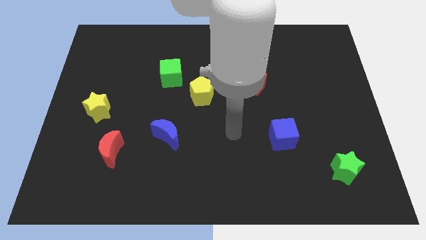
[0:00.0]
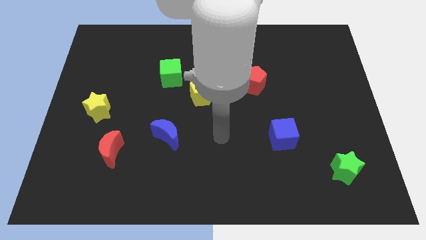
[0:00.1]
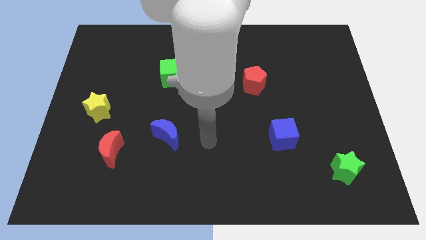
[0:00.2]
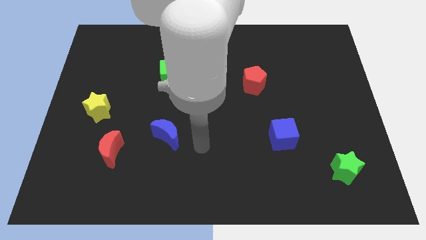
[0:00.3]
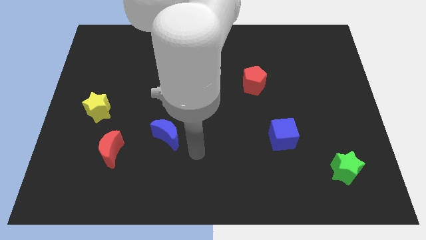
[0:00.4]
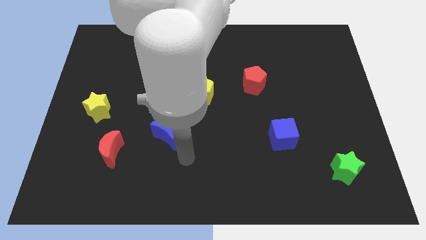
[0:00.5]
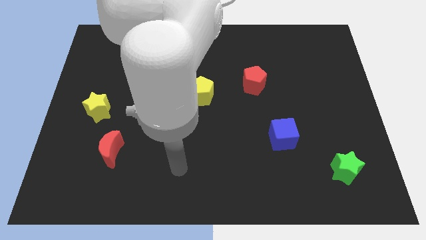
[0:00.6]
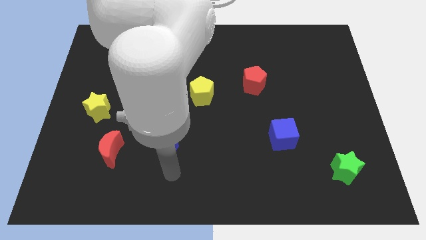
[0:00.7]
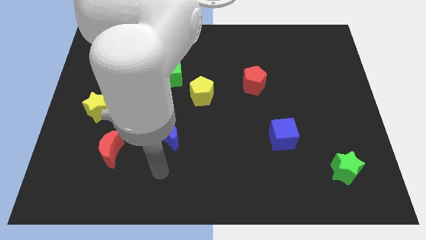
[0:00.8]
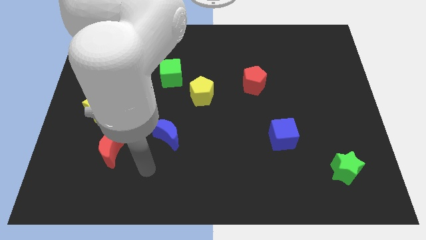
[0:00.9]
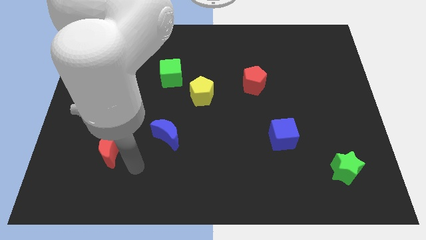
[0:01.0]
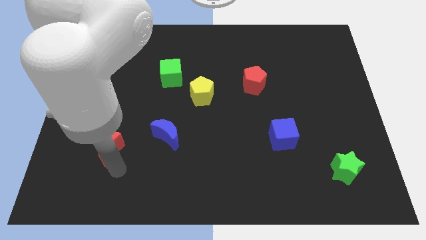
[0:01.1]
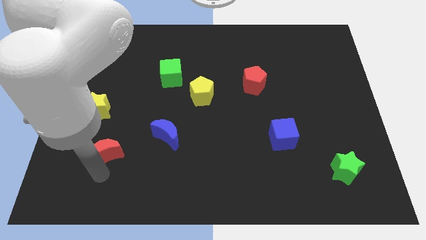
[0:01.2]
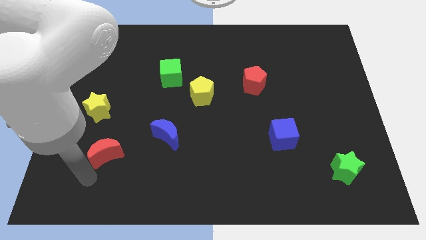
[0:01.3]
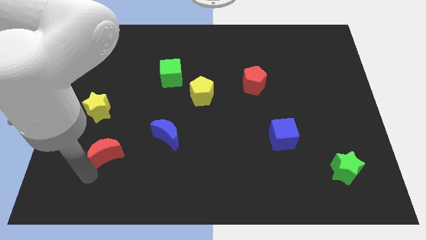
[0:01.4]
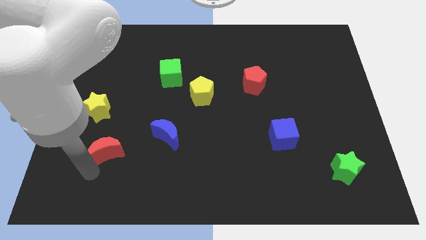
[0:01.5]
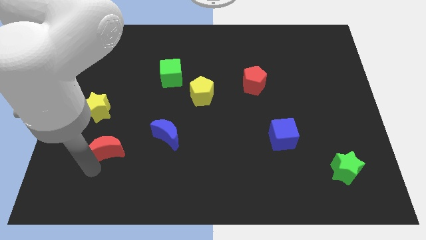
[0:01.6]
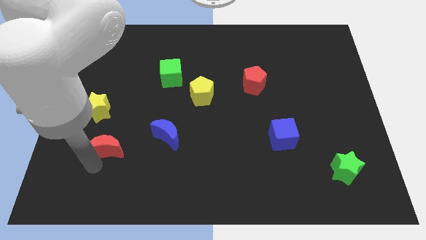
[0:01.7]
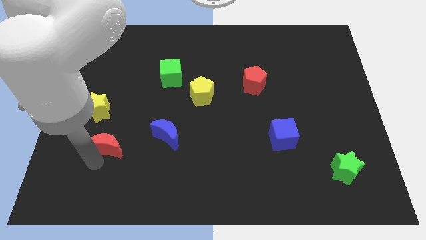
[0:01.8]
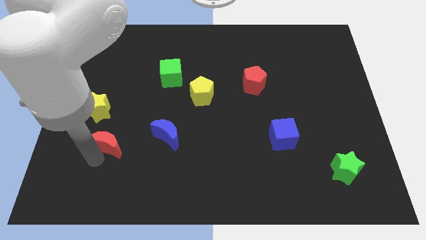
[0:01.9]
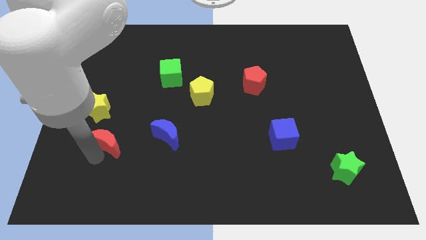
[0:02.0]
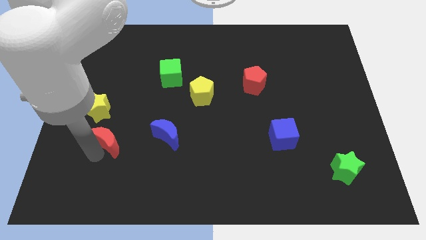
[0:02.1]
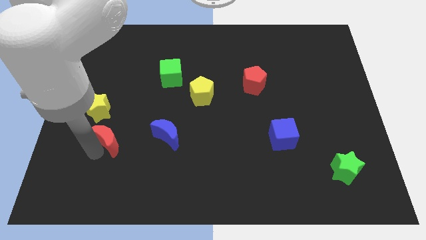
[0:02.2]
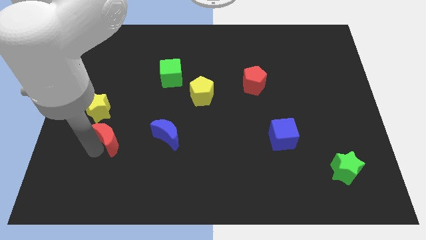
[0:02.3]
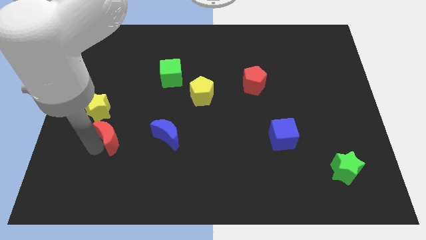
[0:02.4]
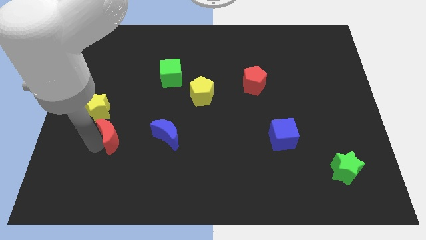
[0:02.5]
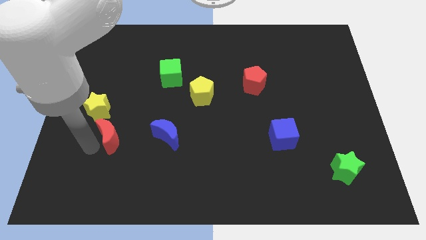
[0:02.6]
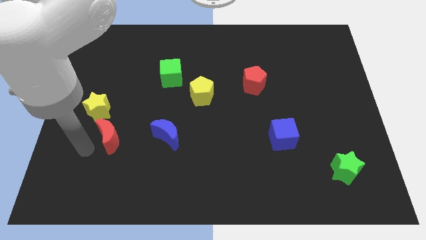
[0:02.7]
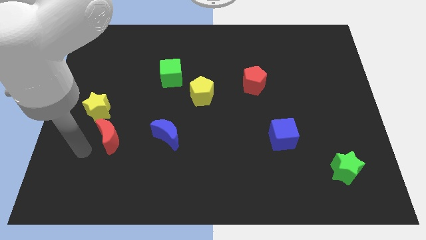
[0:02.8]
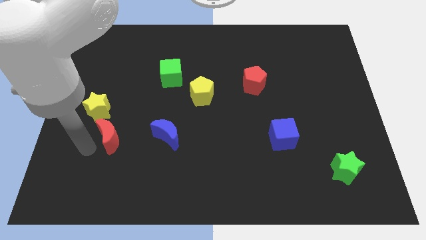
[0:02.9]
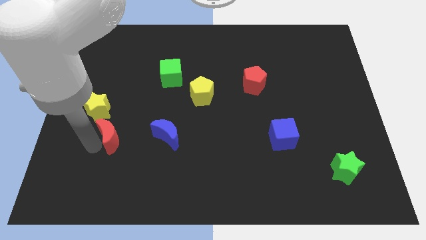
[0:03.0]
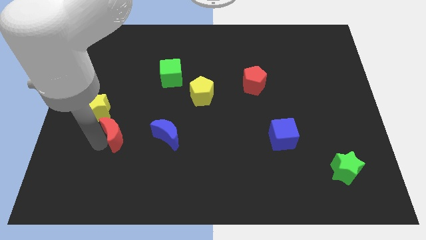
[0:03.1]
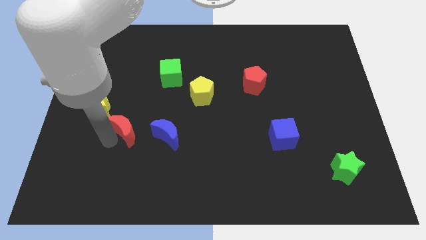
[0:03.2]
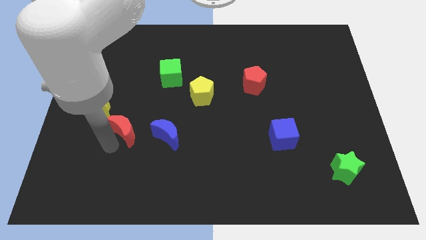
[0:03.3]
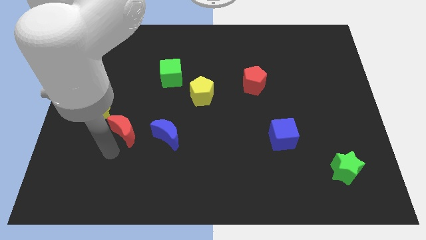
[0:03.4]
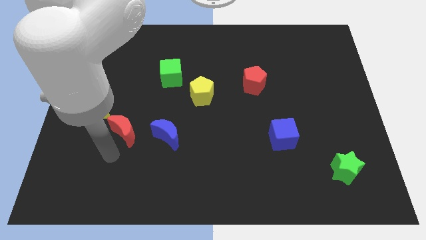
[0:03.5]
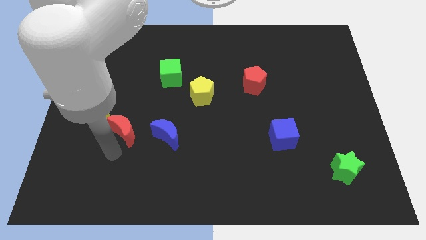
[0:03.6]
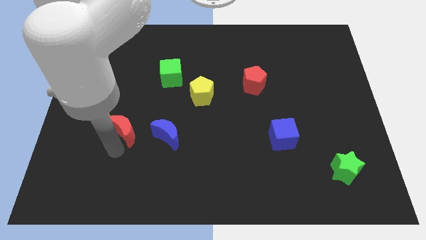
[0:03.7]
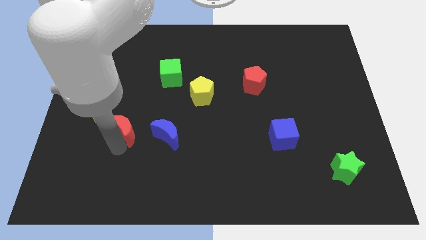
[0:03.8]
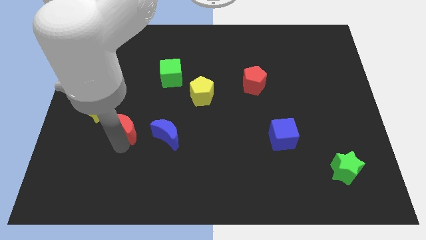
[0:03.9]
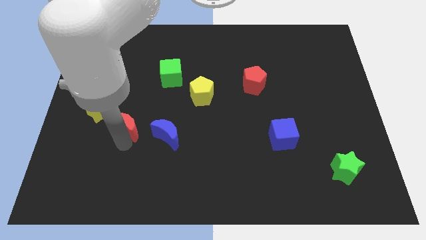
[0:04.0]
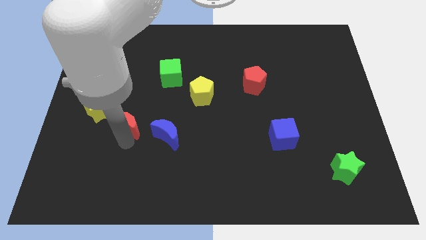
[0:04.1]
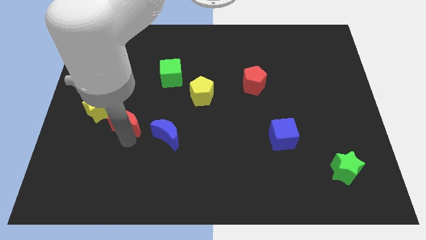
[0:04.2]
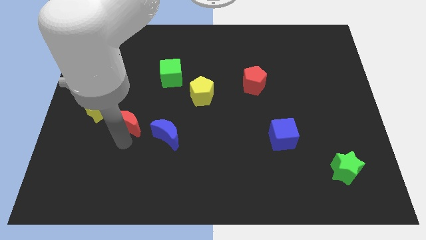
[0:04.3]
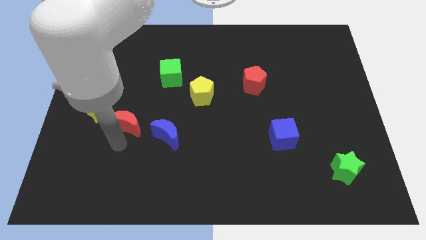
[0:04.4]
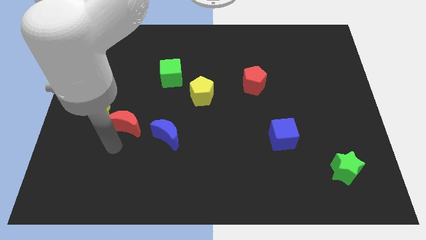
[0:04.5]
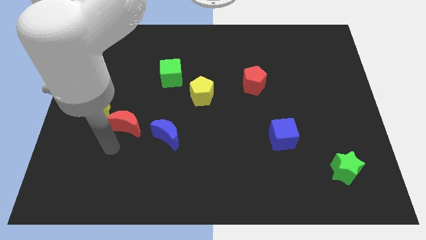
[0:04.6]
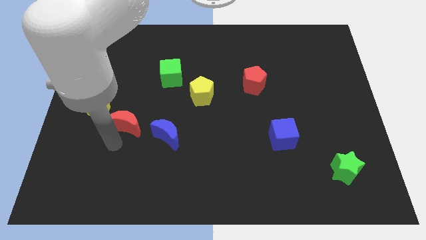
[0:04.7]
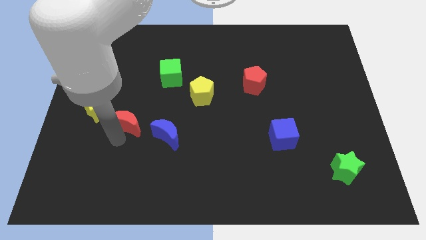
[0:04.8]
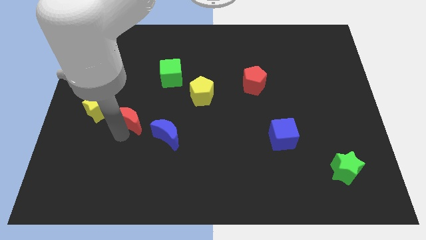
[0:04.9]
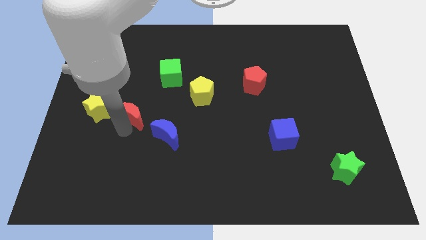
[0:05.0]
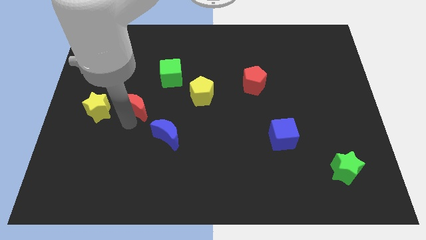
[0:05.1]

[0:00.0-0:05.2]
slide the red moon to the bottom left side of the green cube

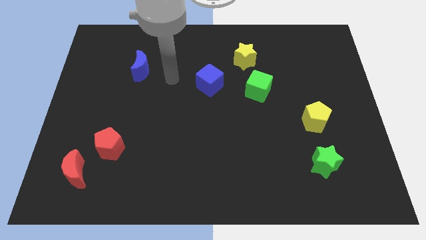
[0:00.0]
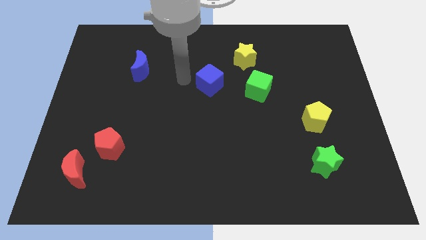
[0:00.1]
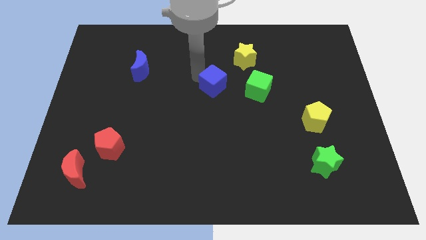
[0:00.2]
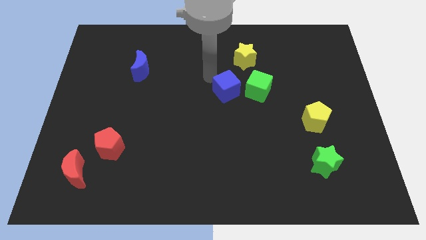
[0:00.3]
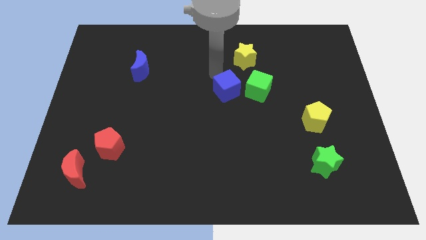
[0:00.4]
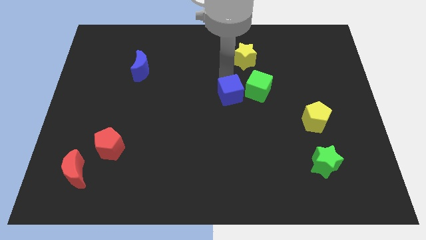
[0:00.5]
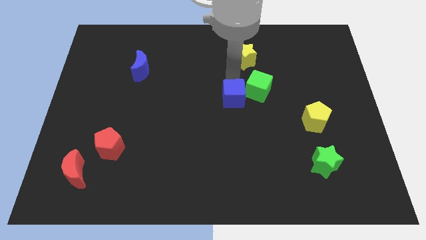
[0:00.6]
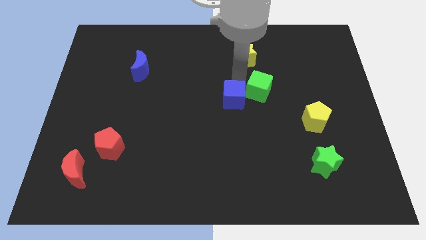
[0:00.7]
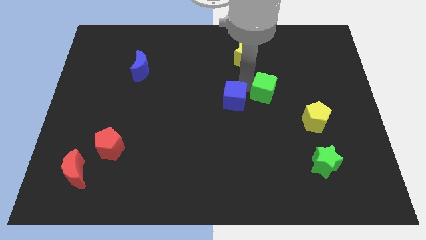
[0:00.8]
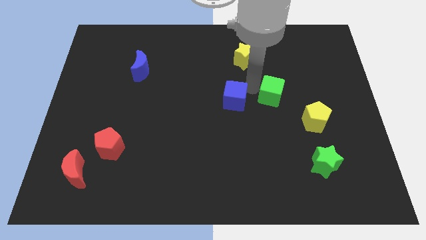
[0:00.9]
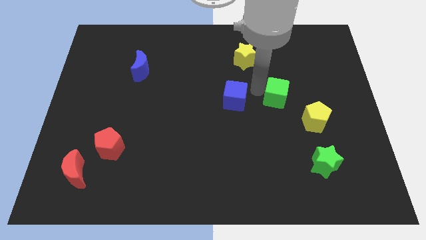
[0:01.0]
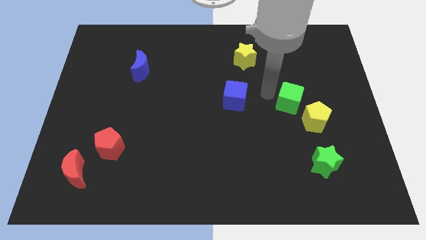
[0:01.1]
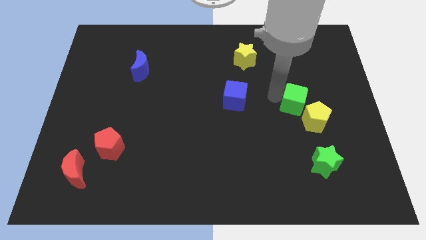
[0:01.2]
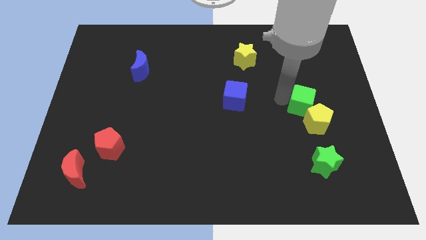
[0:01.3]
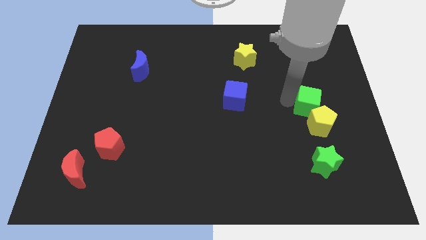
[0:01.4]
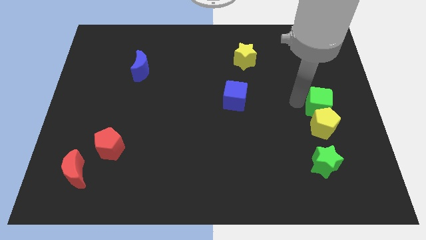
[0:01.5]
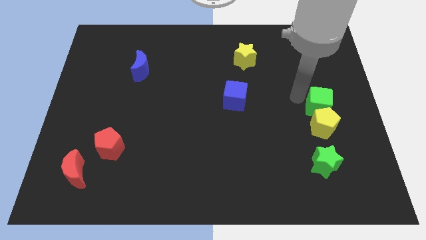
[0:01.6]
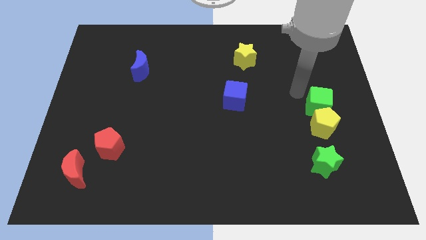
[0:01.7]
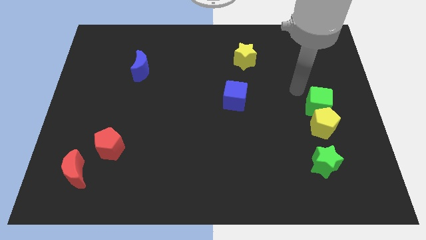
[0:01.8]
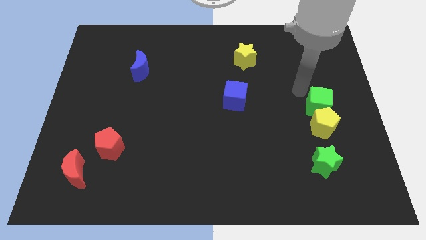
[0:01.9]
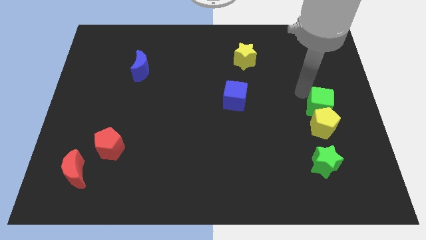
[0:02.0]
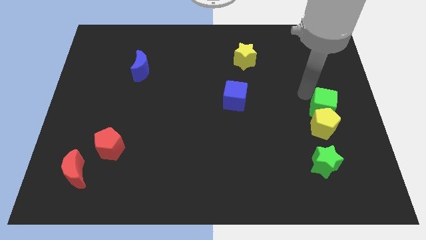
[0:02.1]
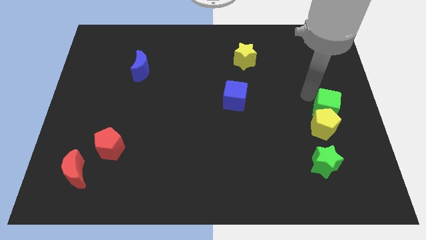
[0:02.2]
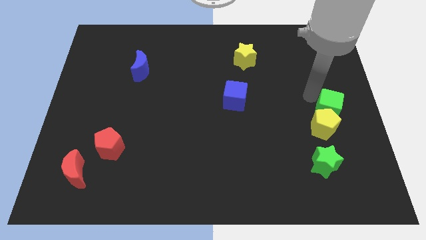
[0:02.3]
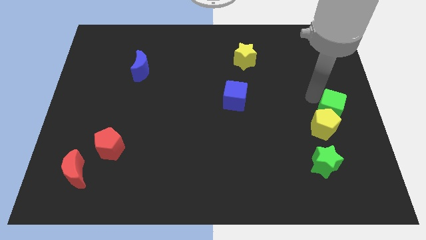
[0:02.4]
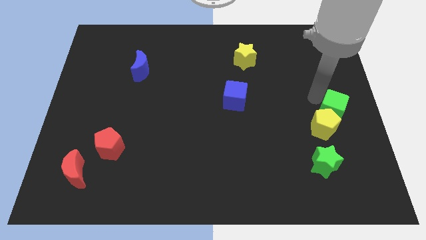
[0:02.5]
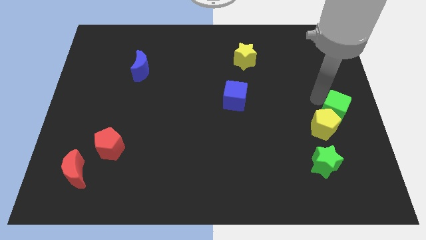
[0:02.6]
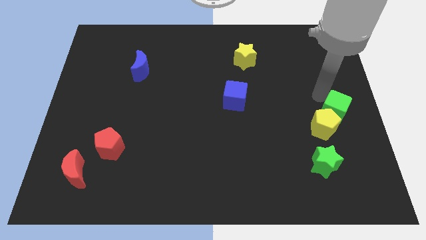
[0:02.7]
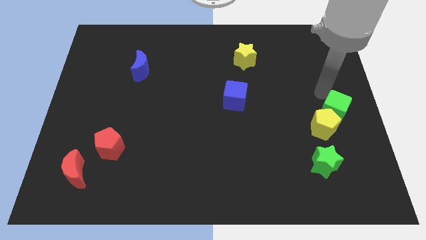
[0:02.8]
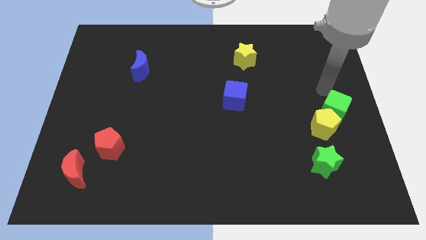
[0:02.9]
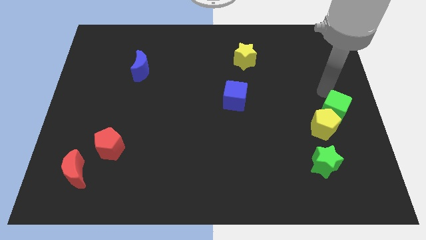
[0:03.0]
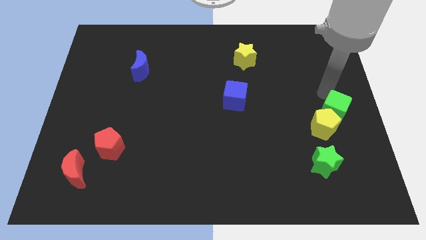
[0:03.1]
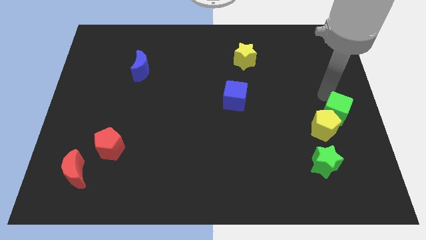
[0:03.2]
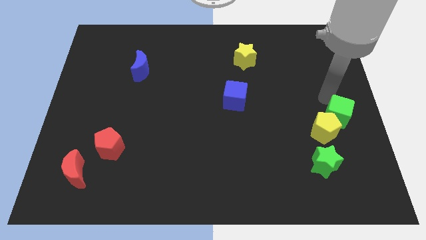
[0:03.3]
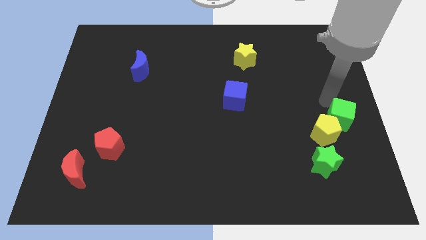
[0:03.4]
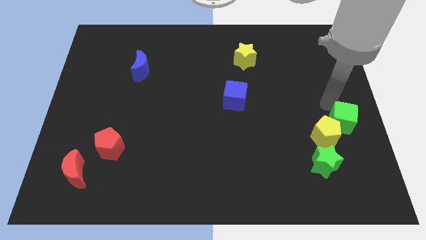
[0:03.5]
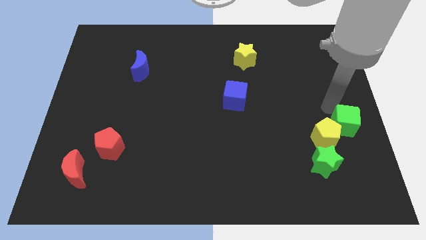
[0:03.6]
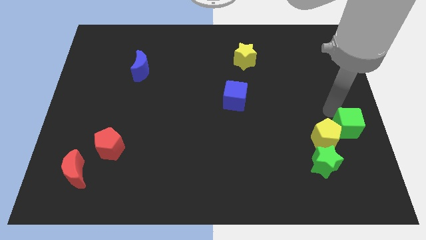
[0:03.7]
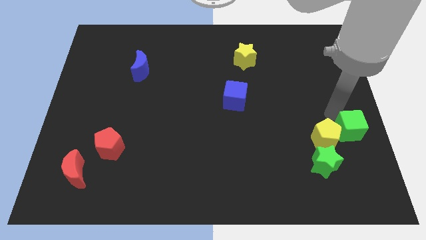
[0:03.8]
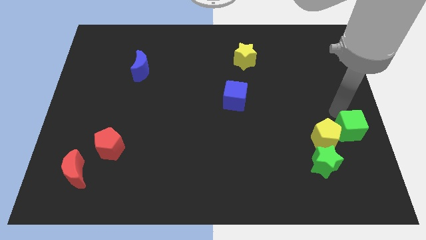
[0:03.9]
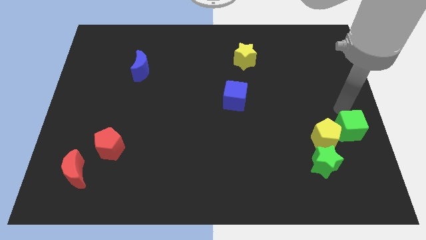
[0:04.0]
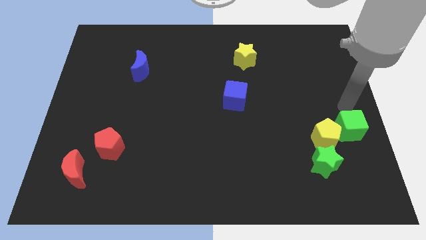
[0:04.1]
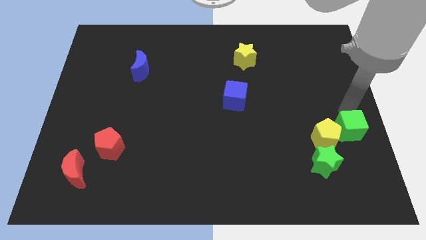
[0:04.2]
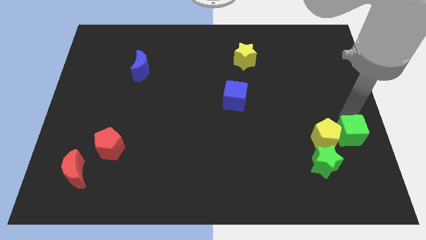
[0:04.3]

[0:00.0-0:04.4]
slide the green cube diagonally down and to the right of the yellow pentagon
